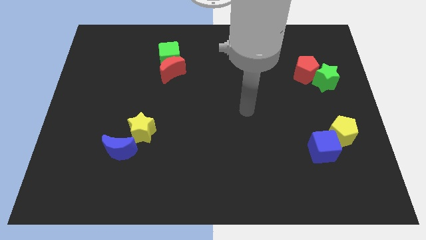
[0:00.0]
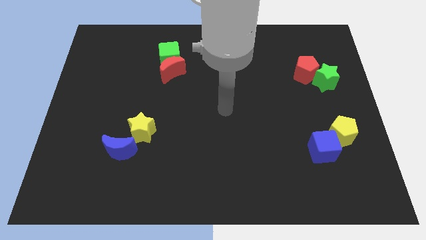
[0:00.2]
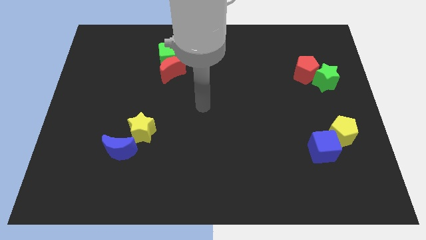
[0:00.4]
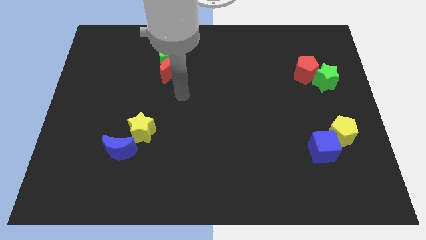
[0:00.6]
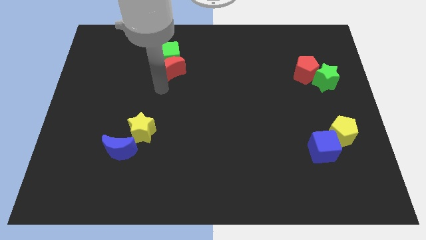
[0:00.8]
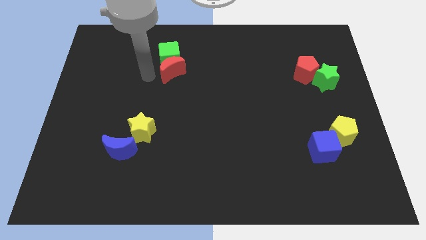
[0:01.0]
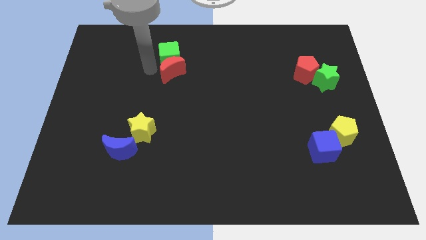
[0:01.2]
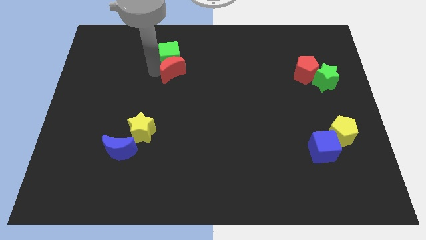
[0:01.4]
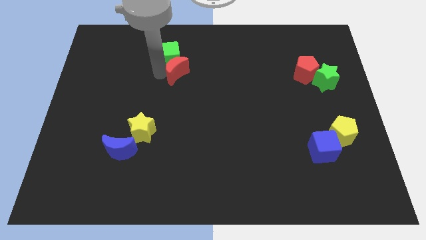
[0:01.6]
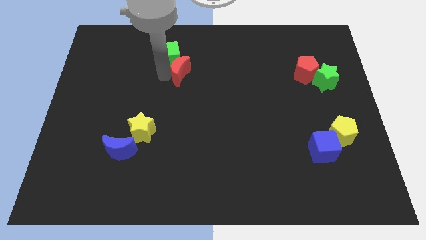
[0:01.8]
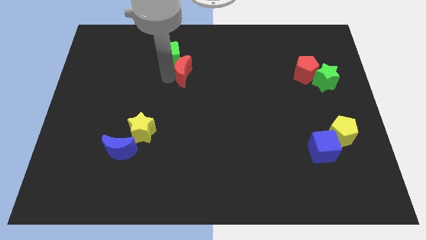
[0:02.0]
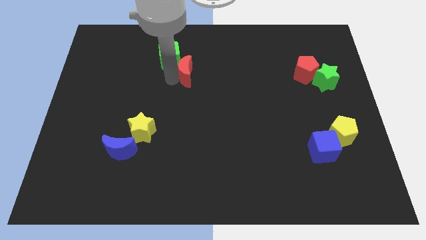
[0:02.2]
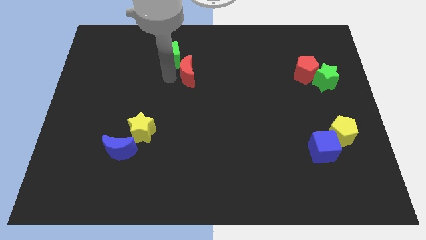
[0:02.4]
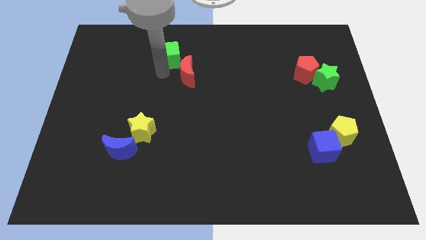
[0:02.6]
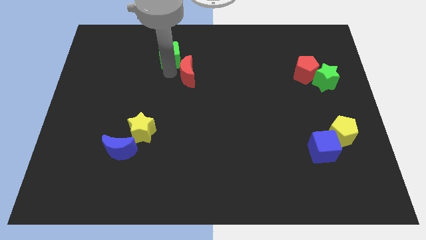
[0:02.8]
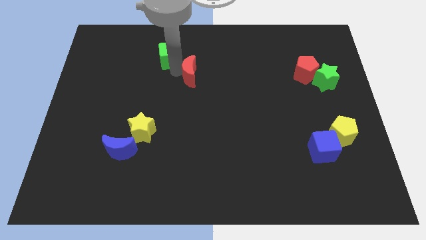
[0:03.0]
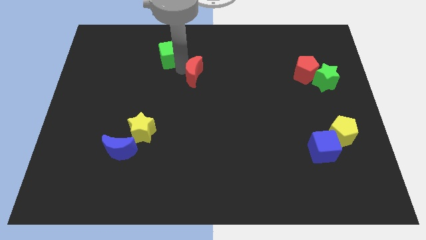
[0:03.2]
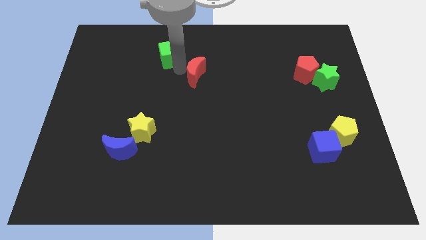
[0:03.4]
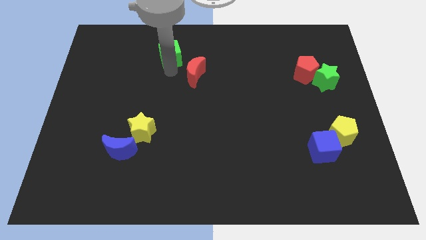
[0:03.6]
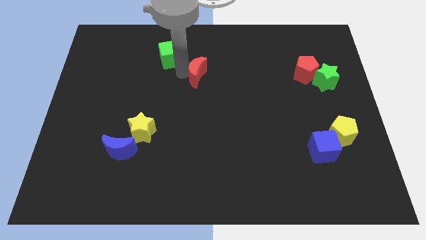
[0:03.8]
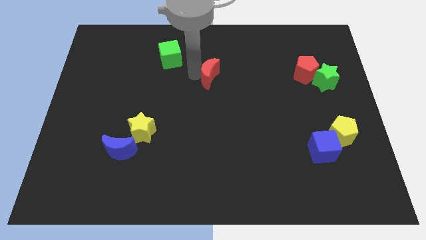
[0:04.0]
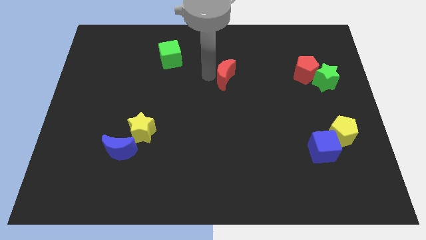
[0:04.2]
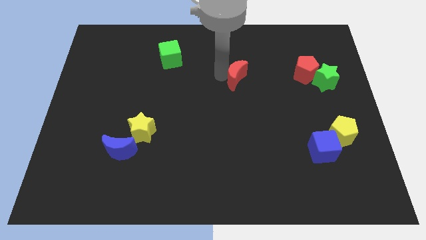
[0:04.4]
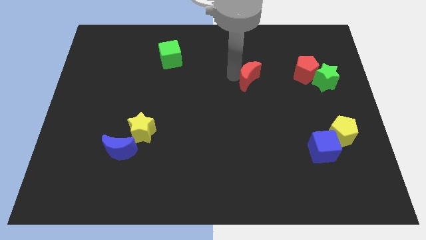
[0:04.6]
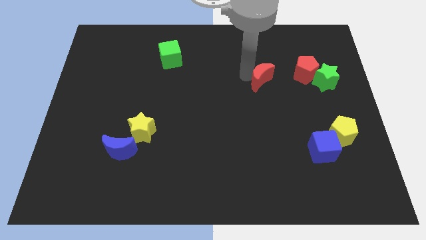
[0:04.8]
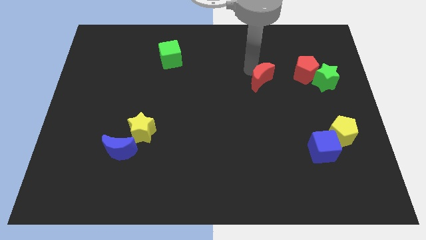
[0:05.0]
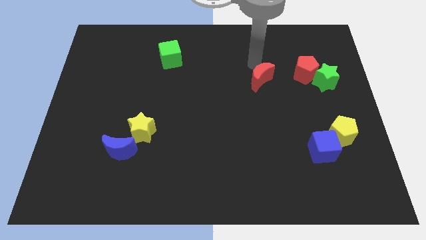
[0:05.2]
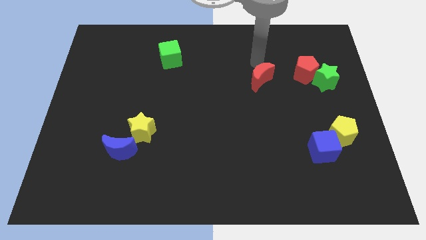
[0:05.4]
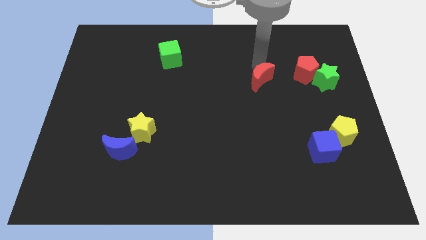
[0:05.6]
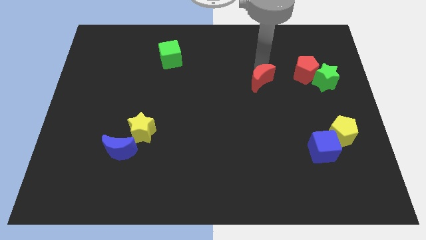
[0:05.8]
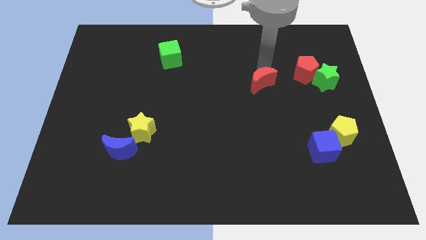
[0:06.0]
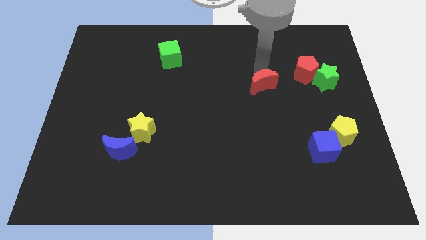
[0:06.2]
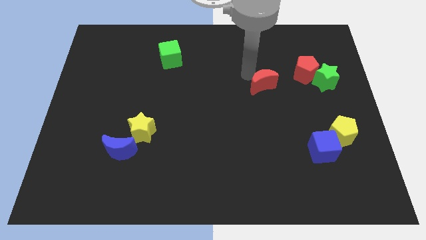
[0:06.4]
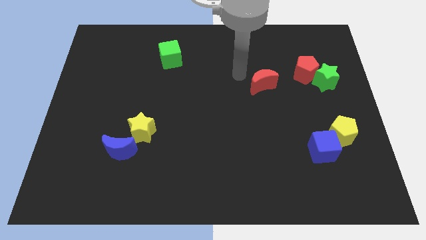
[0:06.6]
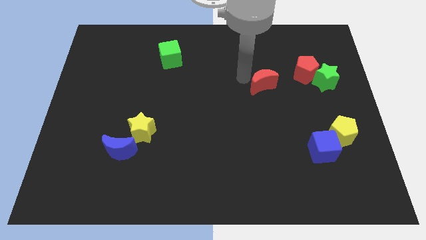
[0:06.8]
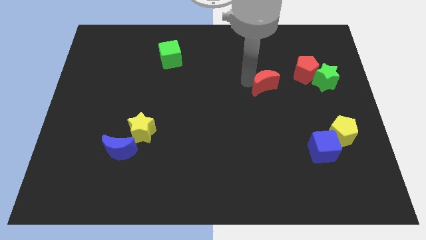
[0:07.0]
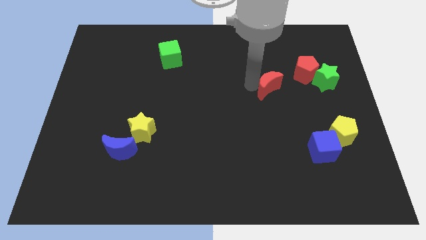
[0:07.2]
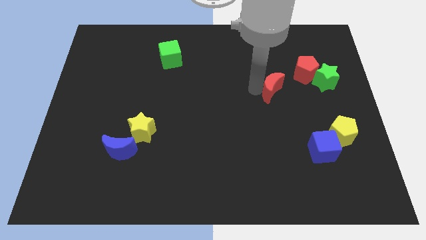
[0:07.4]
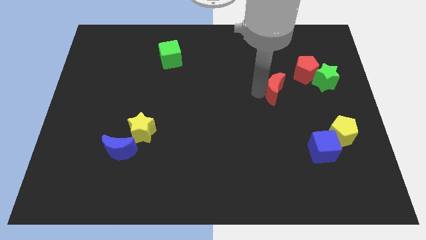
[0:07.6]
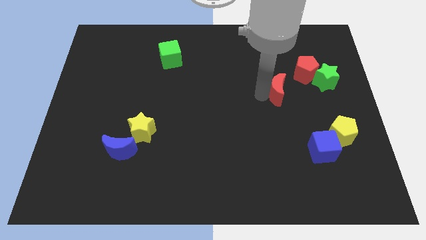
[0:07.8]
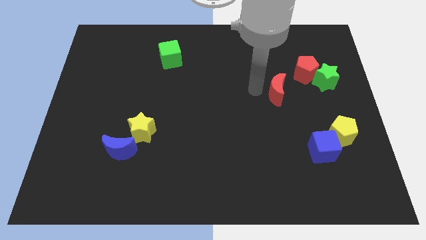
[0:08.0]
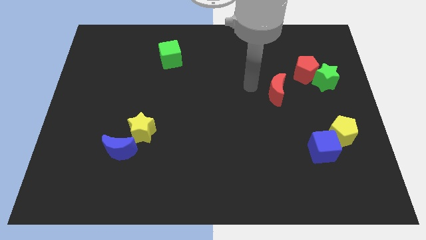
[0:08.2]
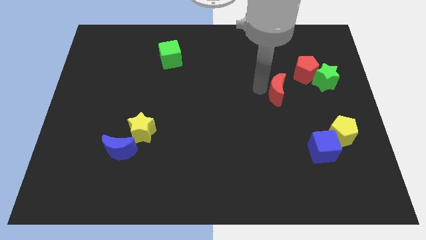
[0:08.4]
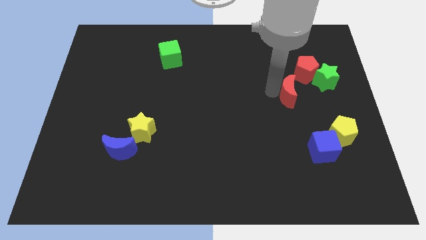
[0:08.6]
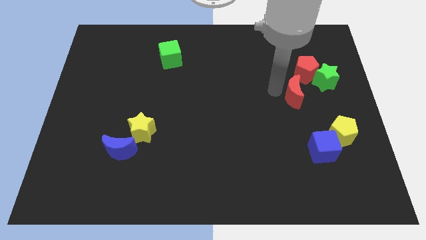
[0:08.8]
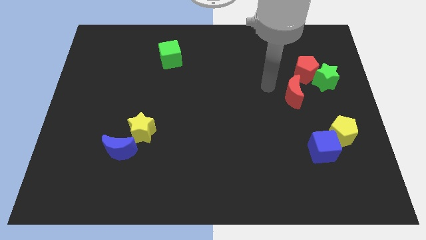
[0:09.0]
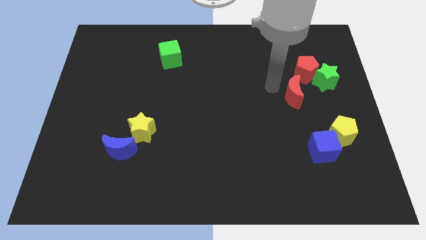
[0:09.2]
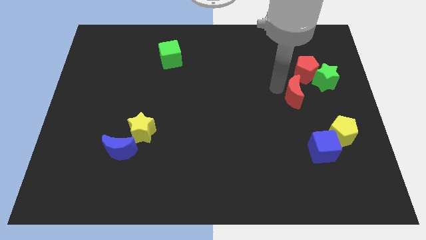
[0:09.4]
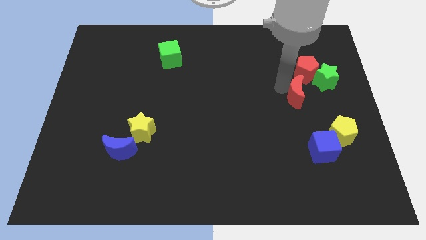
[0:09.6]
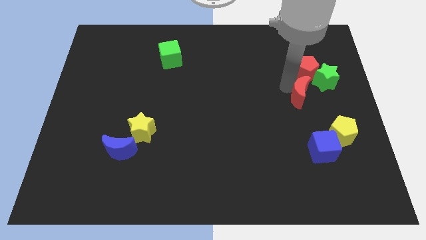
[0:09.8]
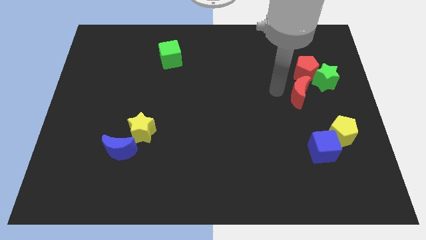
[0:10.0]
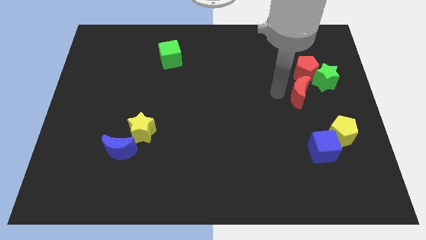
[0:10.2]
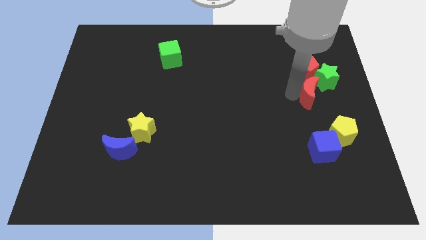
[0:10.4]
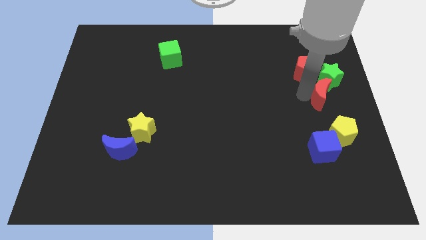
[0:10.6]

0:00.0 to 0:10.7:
put the red moon to the right side of the board

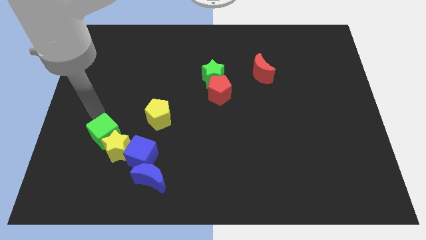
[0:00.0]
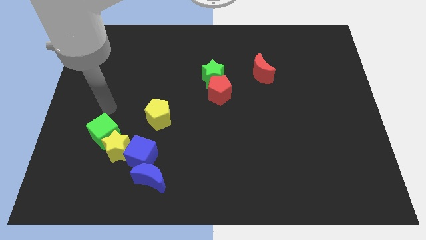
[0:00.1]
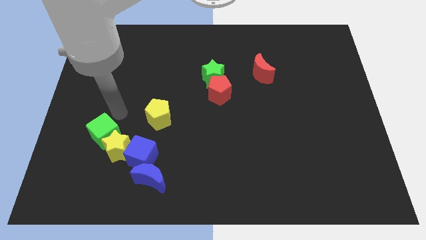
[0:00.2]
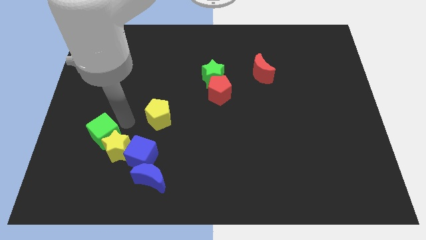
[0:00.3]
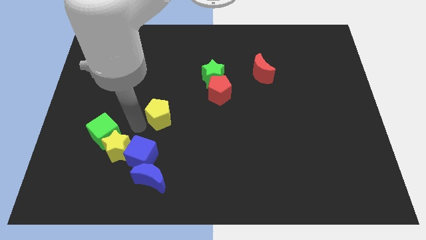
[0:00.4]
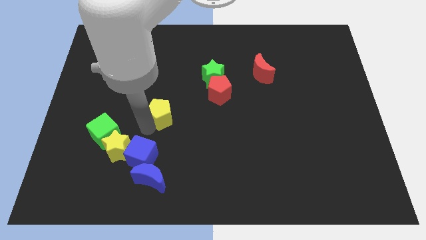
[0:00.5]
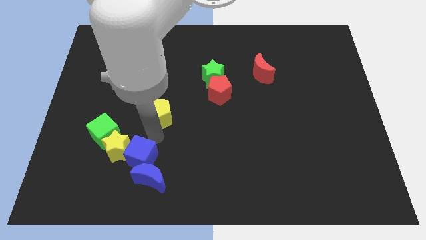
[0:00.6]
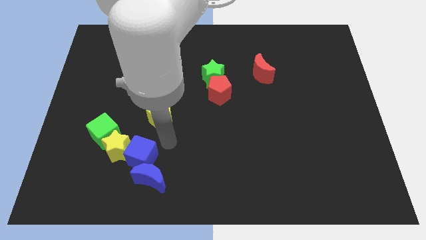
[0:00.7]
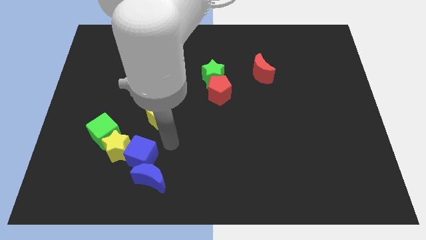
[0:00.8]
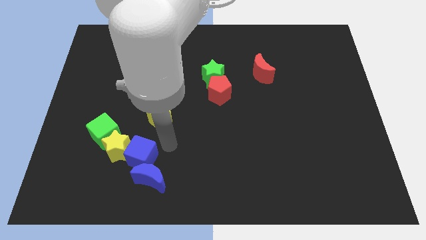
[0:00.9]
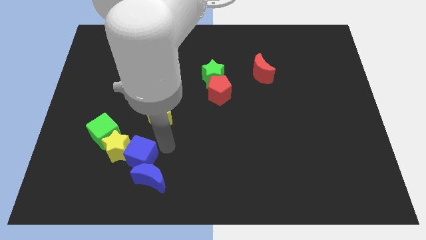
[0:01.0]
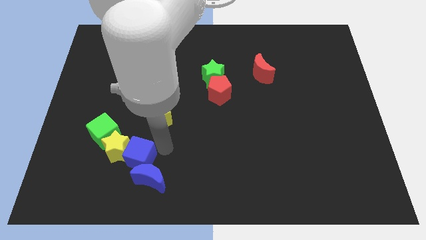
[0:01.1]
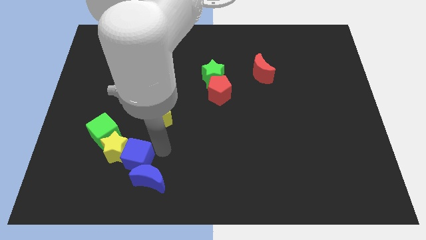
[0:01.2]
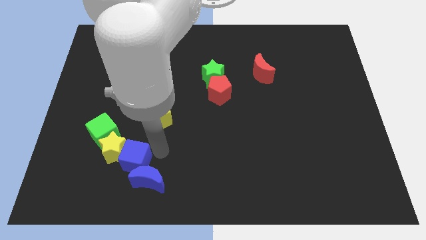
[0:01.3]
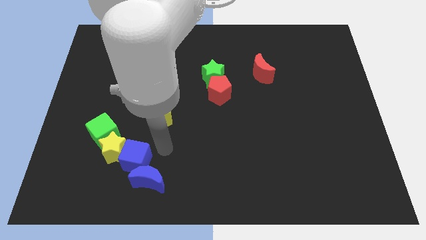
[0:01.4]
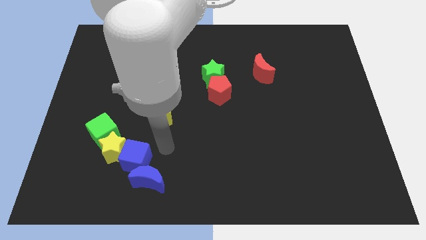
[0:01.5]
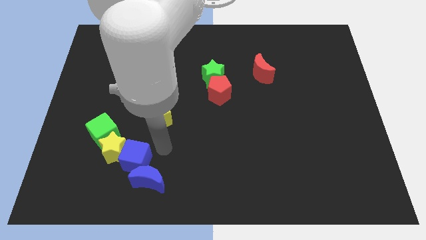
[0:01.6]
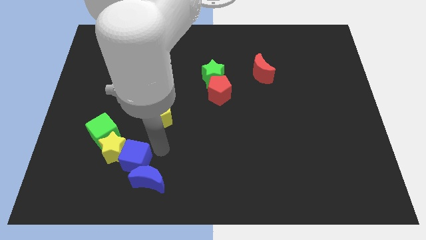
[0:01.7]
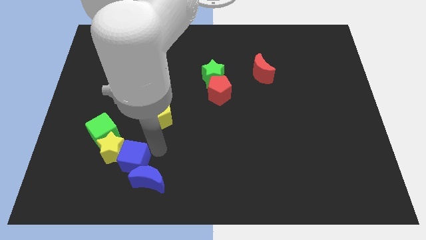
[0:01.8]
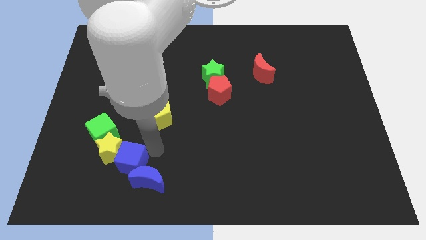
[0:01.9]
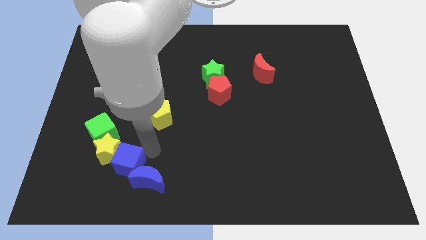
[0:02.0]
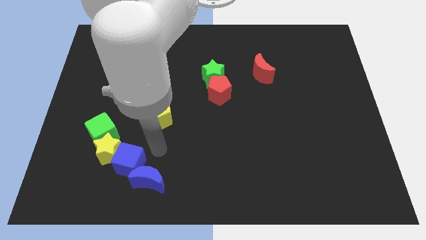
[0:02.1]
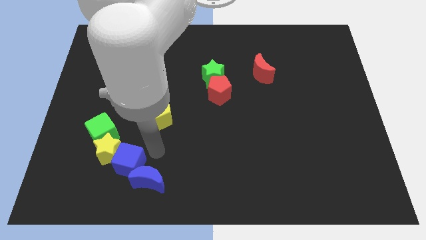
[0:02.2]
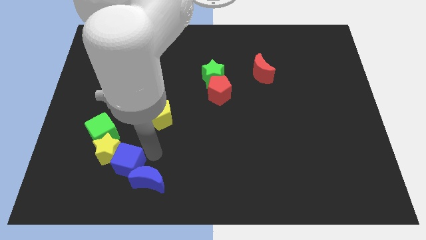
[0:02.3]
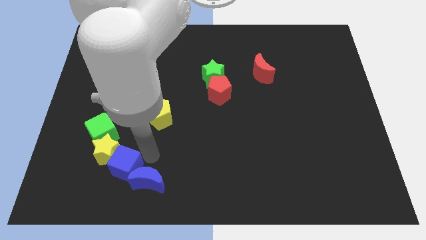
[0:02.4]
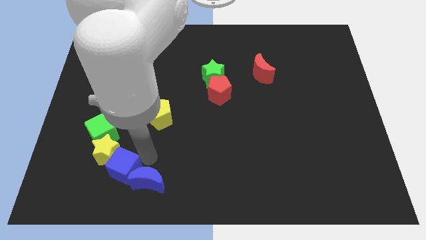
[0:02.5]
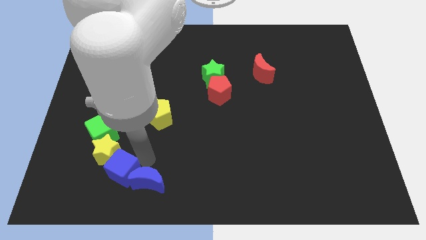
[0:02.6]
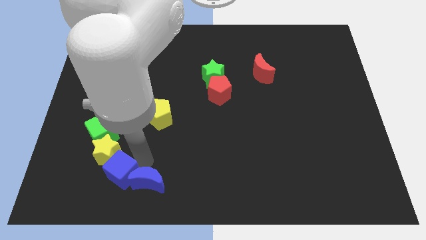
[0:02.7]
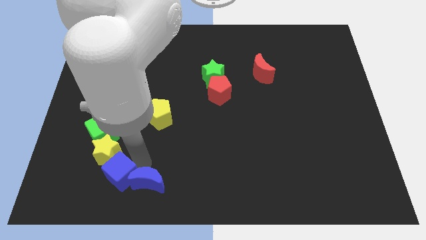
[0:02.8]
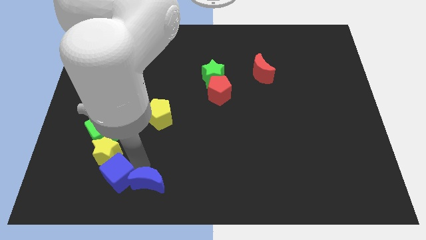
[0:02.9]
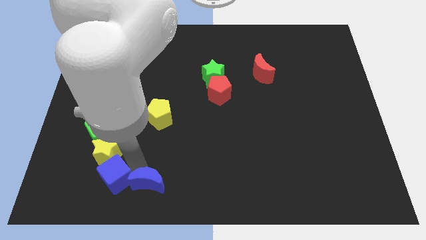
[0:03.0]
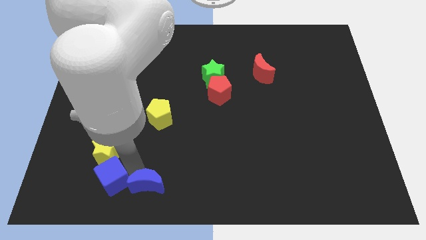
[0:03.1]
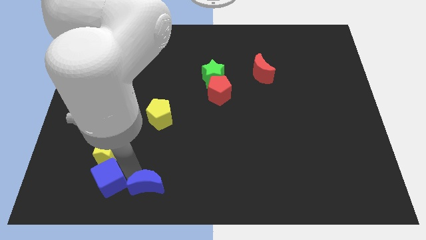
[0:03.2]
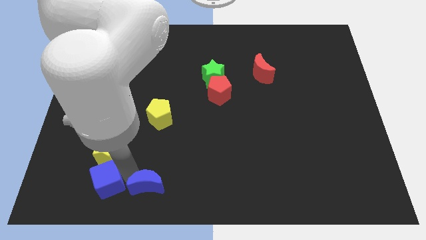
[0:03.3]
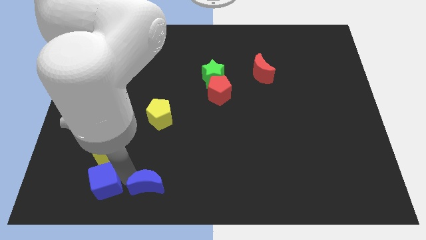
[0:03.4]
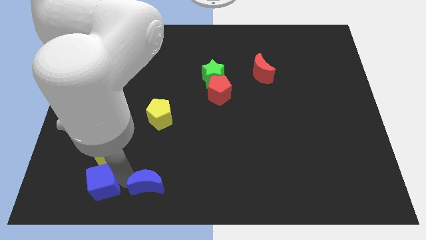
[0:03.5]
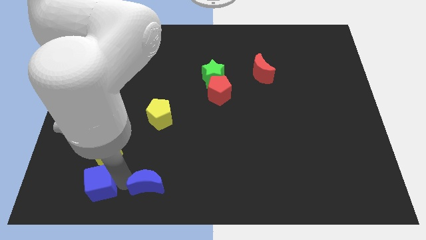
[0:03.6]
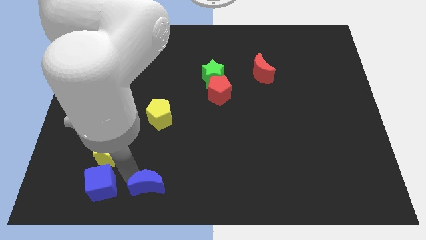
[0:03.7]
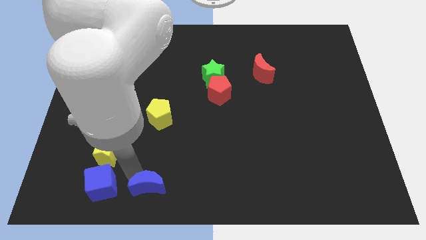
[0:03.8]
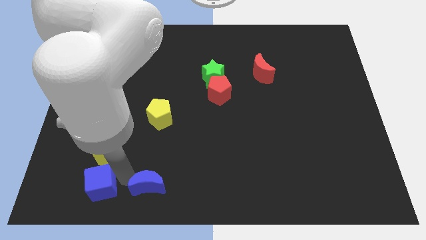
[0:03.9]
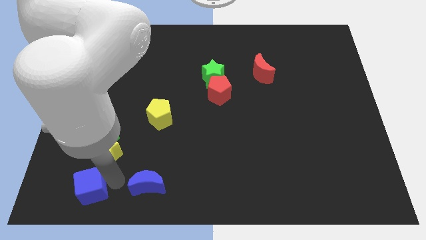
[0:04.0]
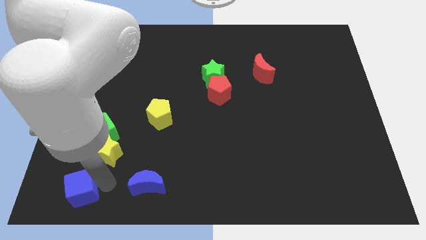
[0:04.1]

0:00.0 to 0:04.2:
slide the blue cube to the bottom left corner
